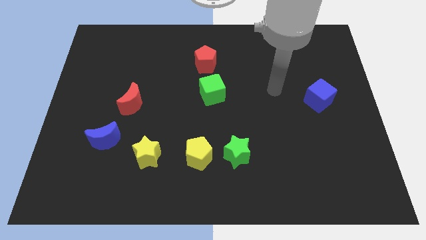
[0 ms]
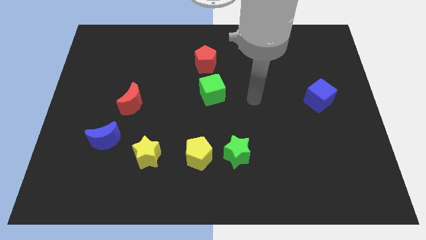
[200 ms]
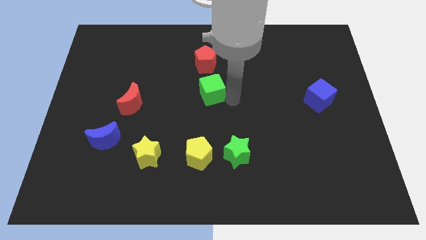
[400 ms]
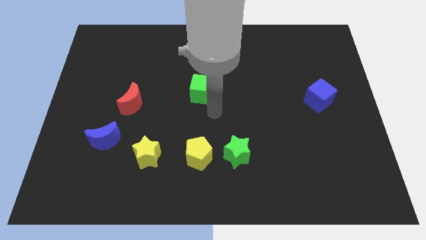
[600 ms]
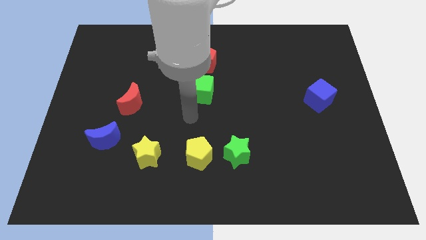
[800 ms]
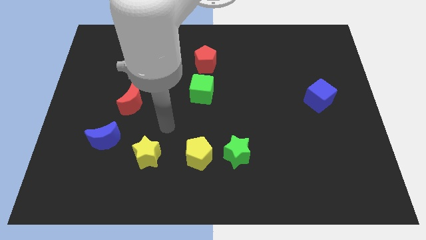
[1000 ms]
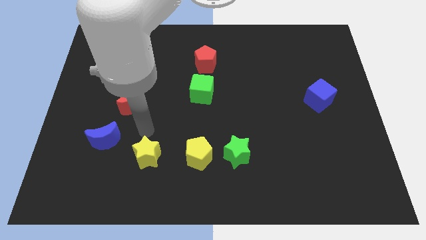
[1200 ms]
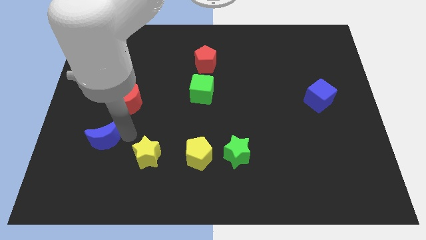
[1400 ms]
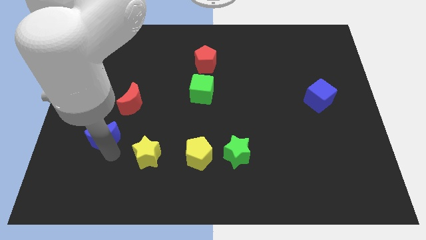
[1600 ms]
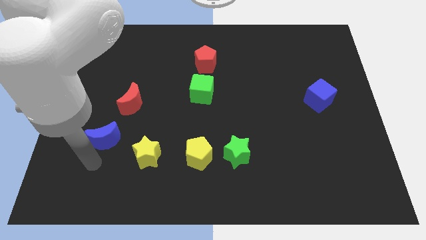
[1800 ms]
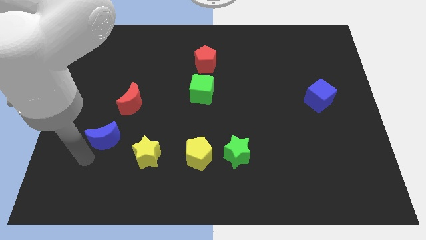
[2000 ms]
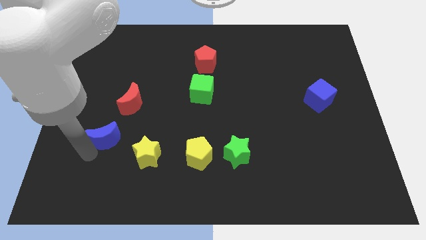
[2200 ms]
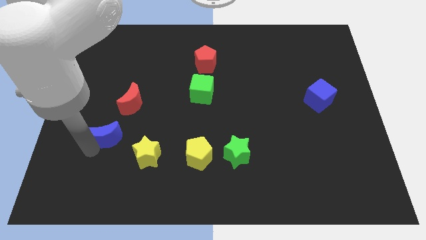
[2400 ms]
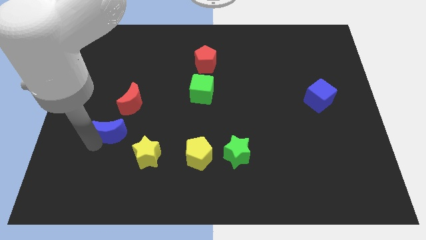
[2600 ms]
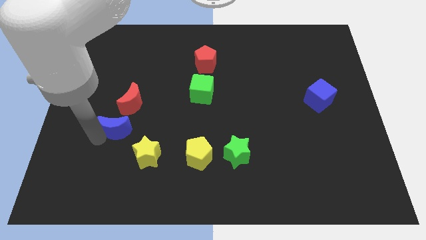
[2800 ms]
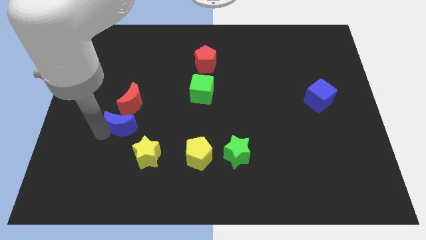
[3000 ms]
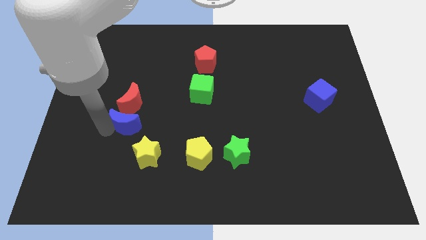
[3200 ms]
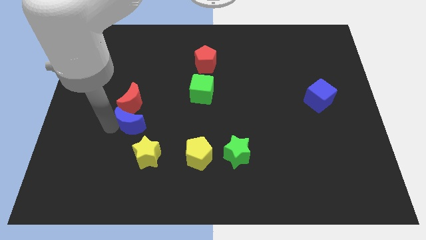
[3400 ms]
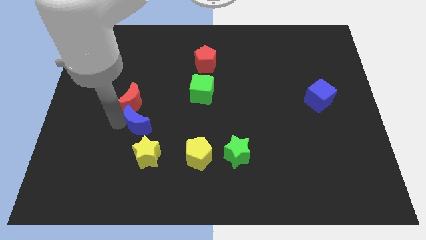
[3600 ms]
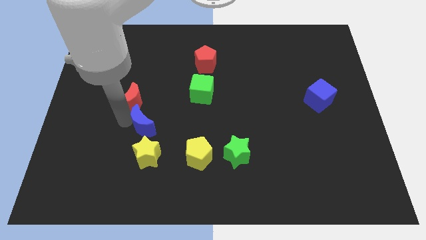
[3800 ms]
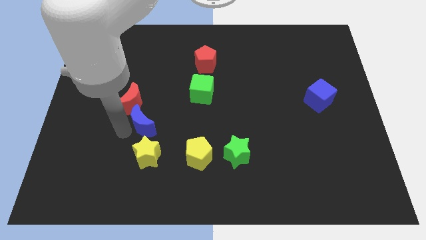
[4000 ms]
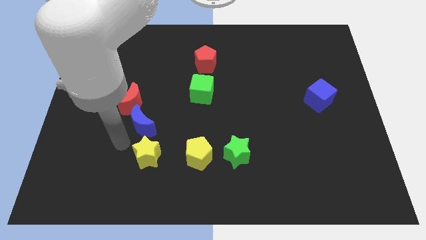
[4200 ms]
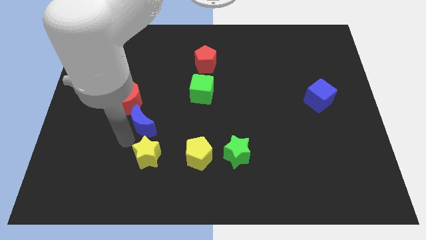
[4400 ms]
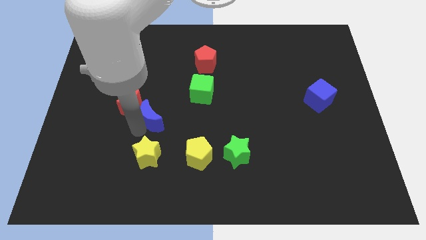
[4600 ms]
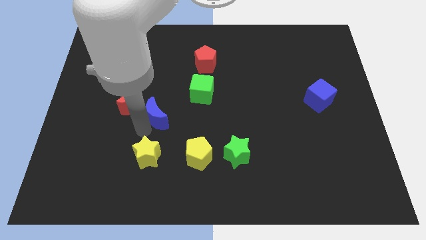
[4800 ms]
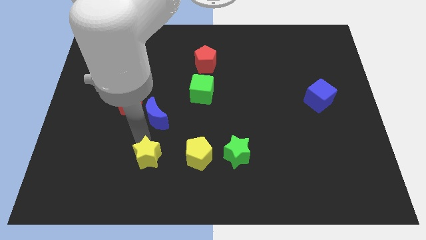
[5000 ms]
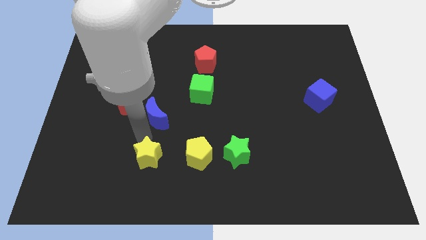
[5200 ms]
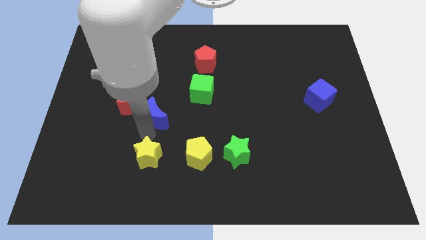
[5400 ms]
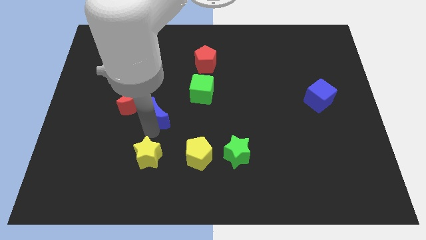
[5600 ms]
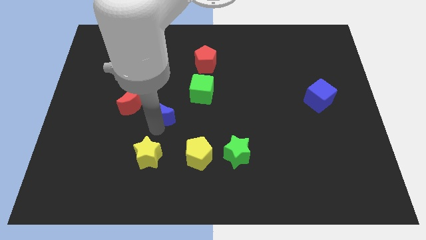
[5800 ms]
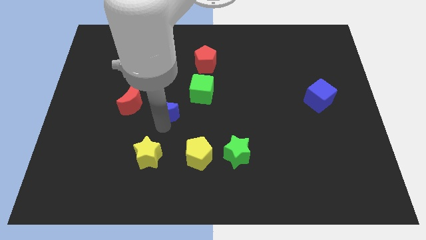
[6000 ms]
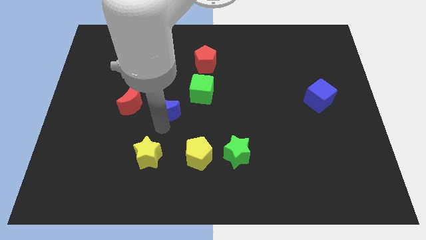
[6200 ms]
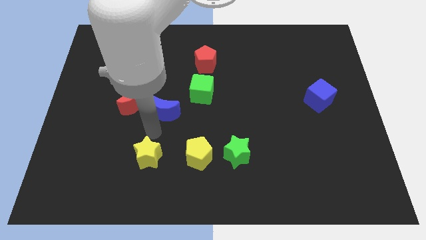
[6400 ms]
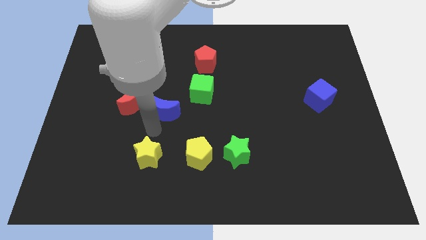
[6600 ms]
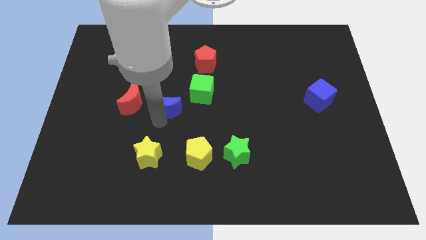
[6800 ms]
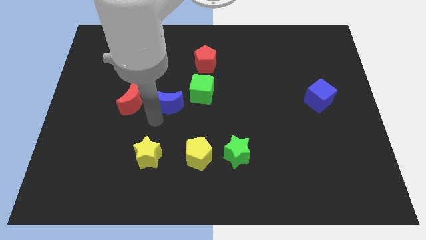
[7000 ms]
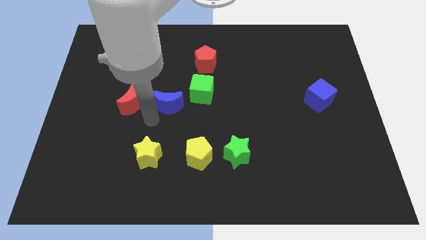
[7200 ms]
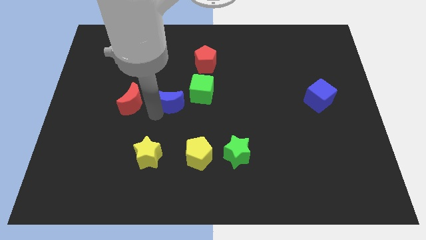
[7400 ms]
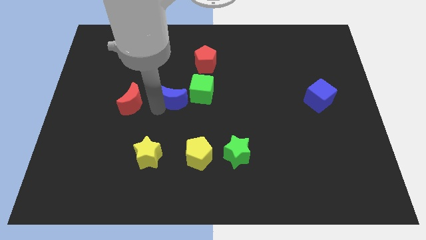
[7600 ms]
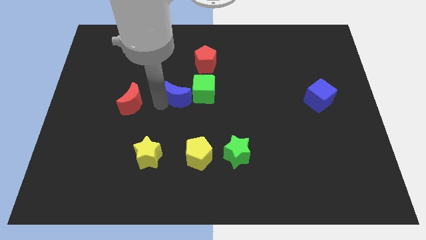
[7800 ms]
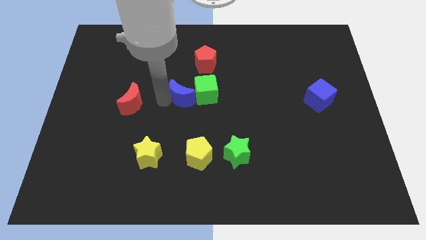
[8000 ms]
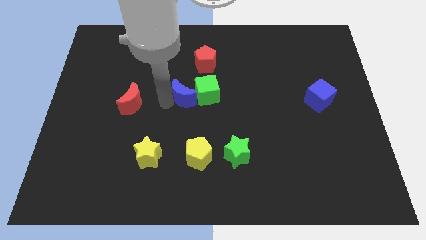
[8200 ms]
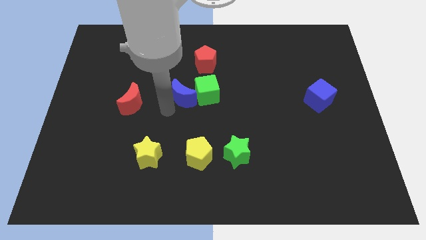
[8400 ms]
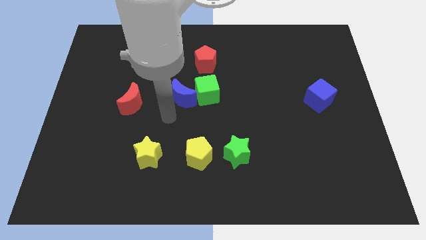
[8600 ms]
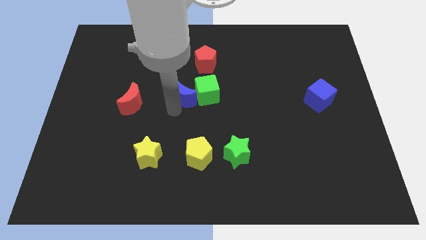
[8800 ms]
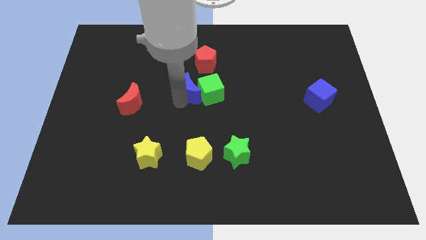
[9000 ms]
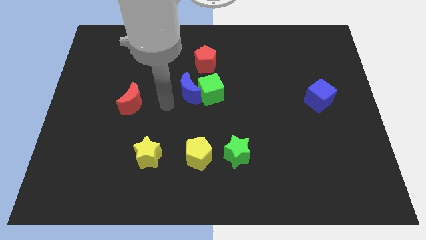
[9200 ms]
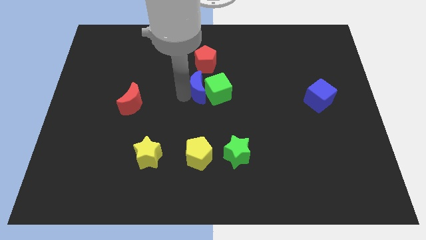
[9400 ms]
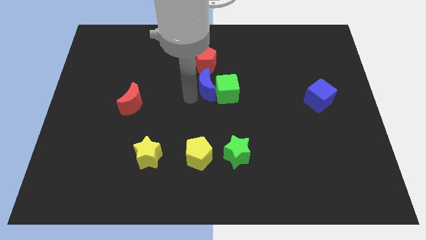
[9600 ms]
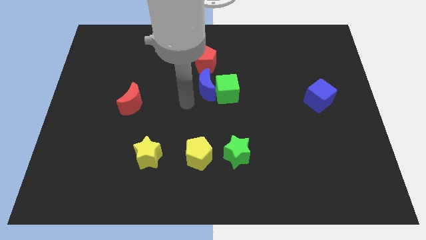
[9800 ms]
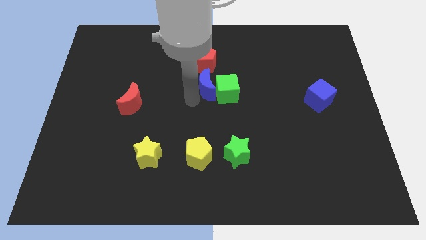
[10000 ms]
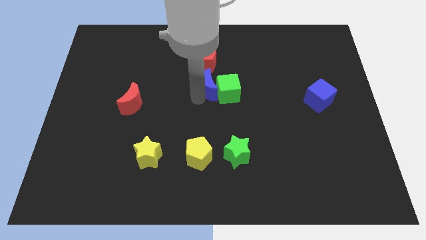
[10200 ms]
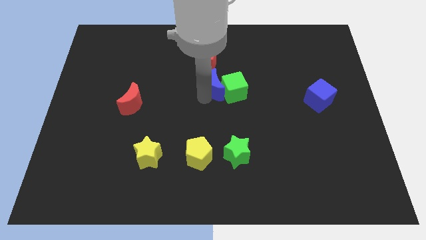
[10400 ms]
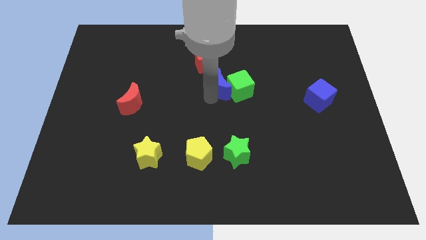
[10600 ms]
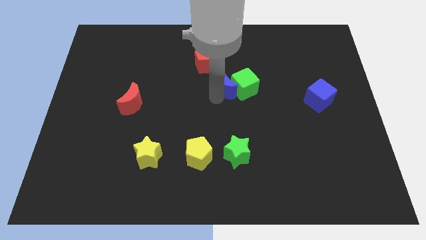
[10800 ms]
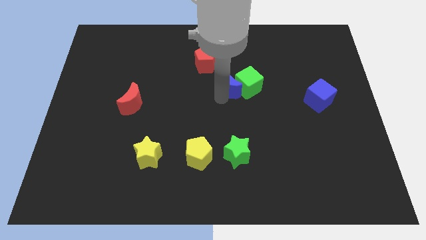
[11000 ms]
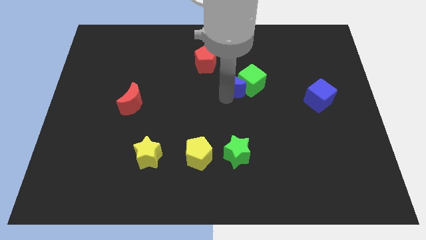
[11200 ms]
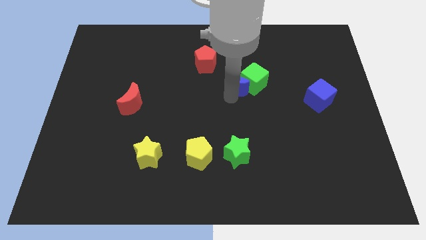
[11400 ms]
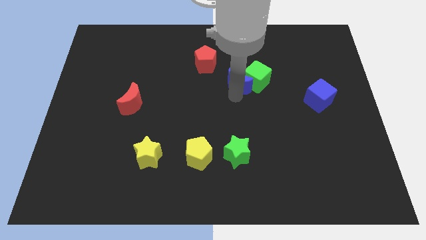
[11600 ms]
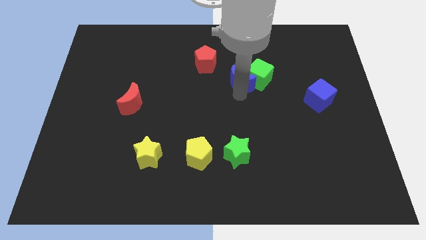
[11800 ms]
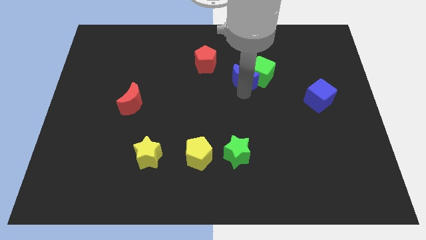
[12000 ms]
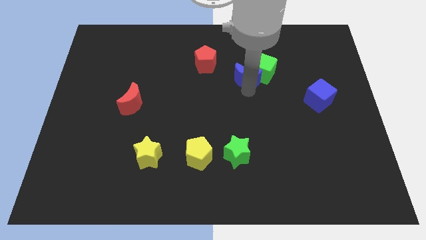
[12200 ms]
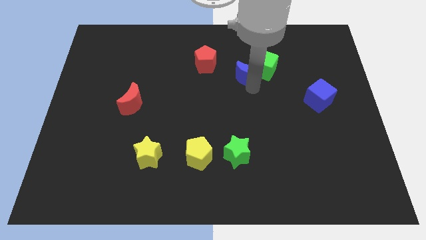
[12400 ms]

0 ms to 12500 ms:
move the blue moon to the right side of the red pentagon

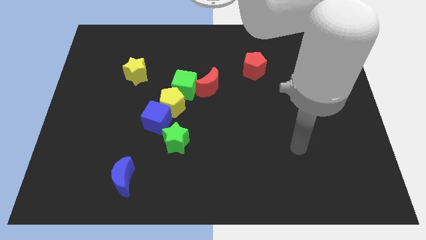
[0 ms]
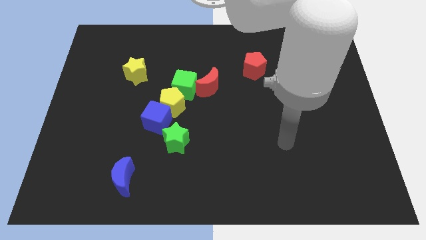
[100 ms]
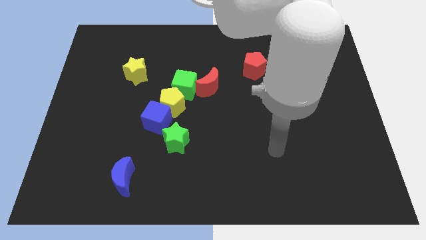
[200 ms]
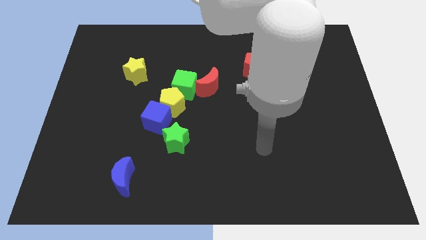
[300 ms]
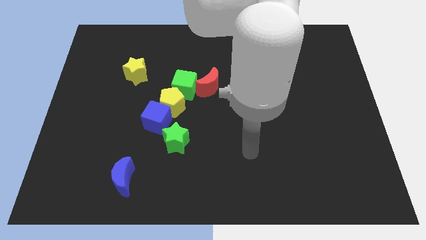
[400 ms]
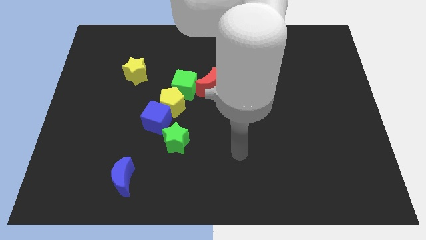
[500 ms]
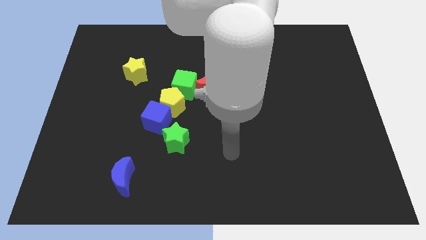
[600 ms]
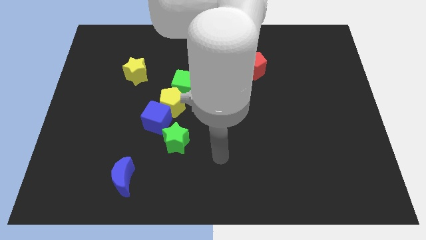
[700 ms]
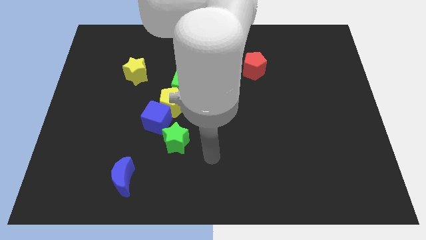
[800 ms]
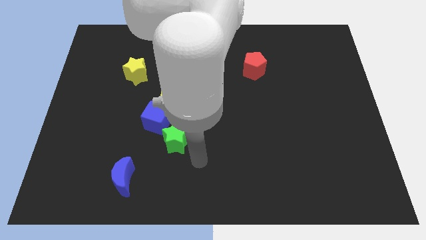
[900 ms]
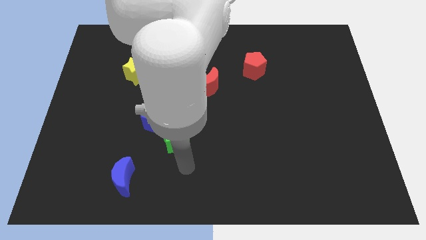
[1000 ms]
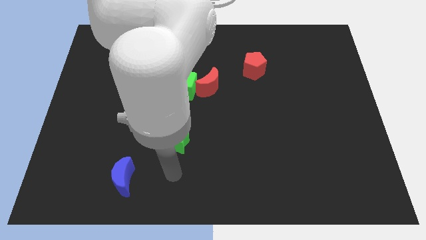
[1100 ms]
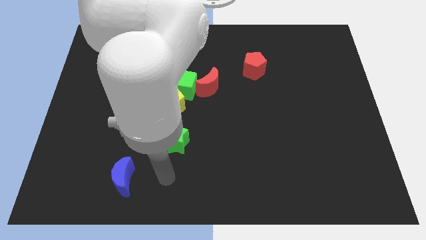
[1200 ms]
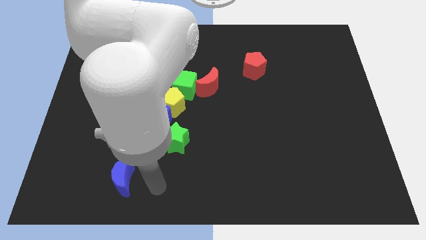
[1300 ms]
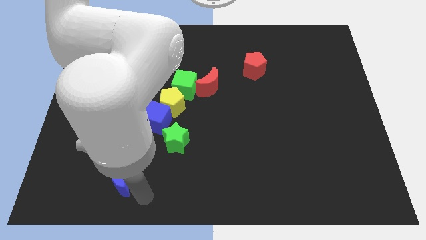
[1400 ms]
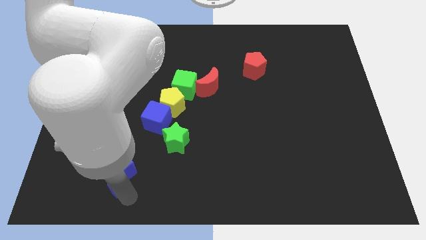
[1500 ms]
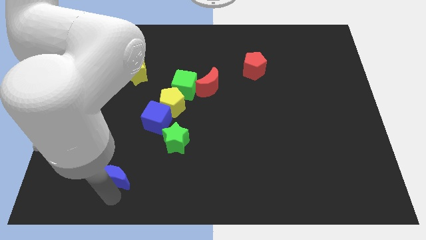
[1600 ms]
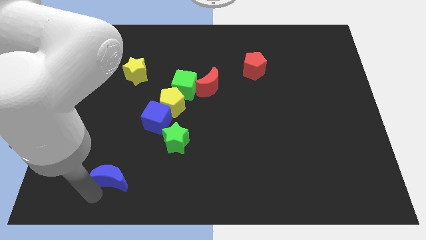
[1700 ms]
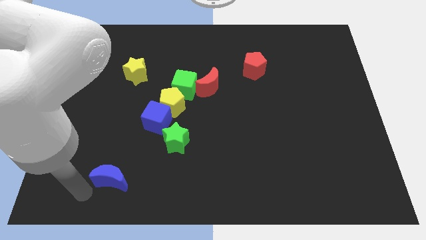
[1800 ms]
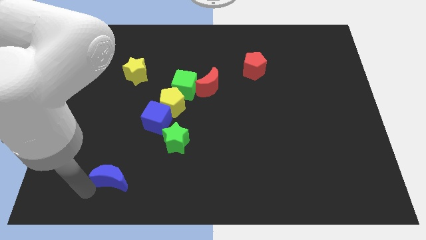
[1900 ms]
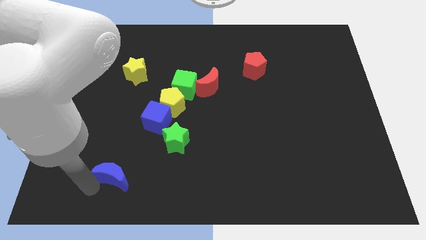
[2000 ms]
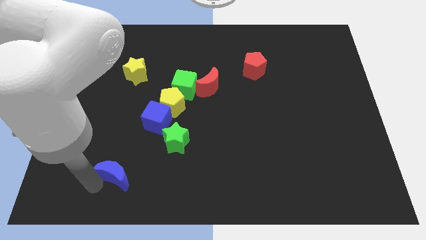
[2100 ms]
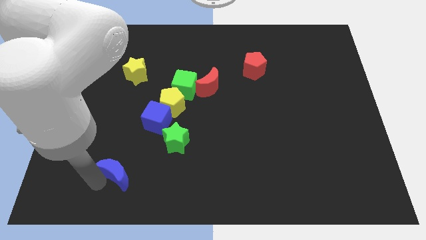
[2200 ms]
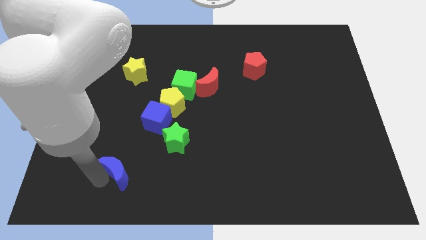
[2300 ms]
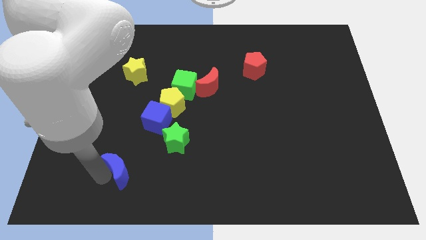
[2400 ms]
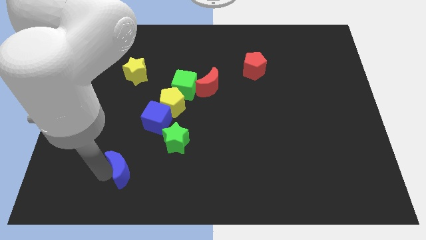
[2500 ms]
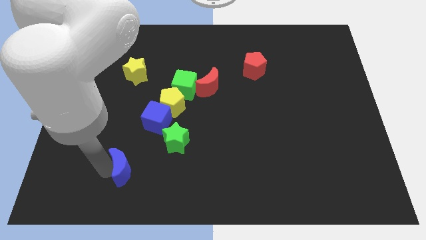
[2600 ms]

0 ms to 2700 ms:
put the blue moon to the bottom left of the green star
